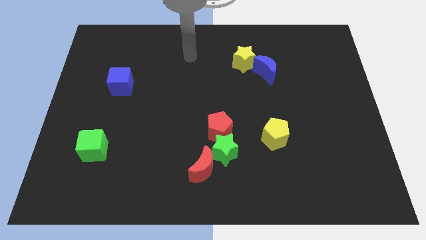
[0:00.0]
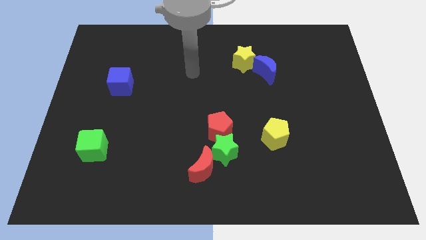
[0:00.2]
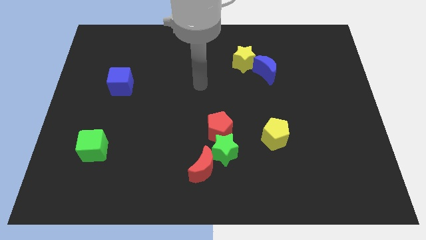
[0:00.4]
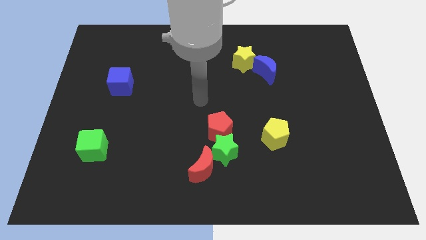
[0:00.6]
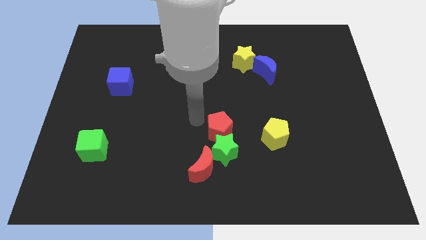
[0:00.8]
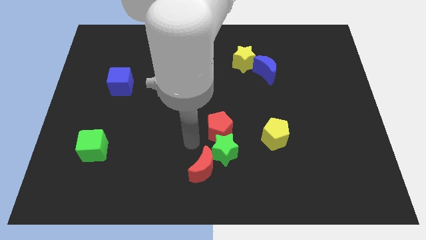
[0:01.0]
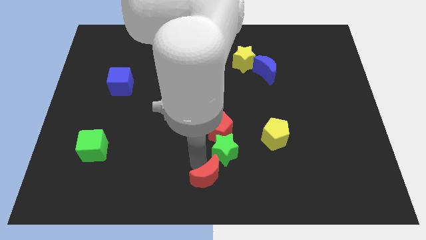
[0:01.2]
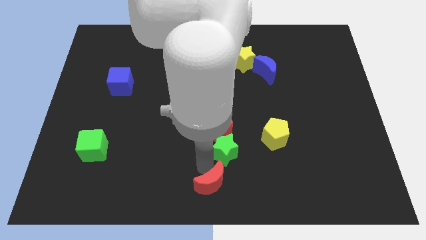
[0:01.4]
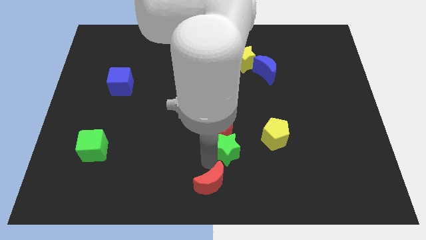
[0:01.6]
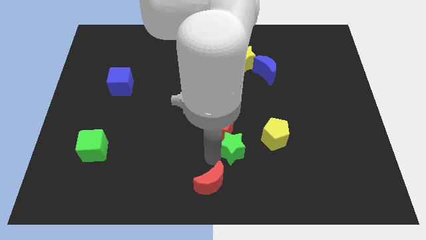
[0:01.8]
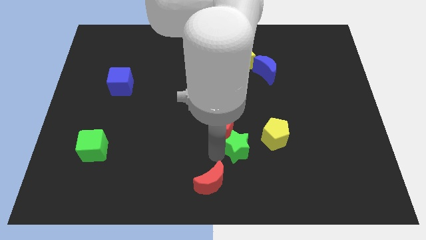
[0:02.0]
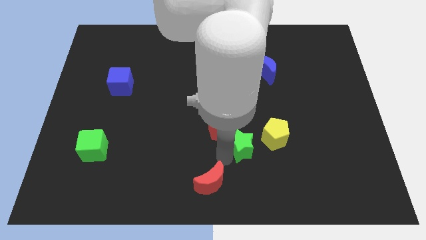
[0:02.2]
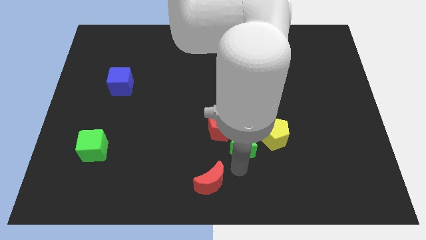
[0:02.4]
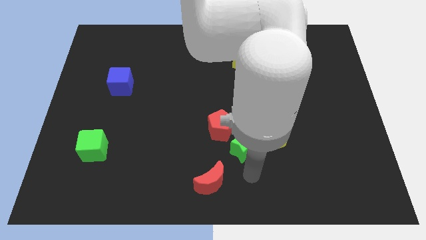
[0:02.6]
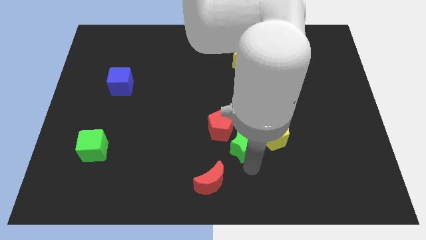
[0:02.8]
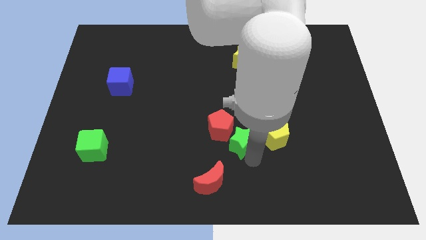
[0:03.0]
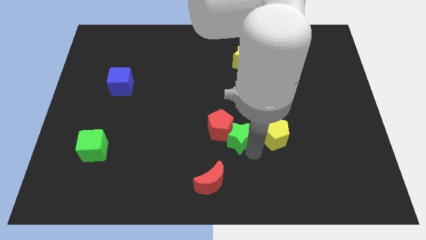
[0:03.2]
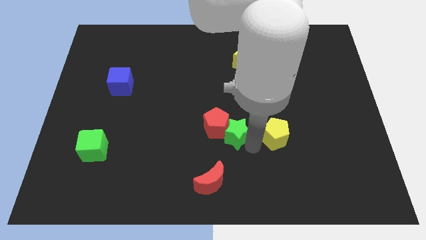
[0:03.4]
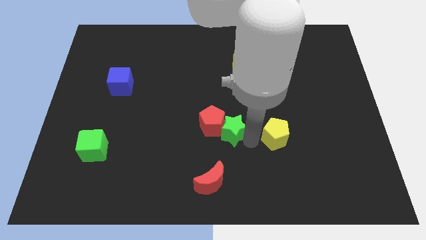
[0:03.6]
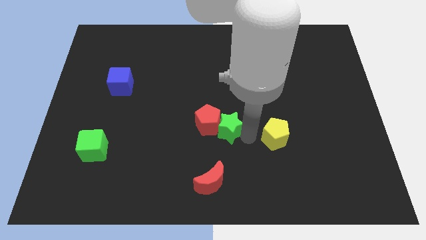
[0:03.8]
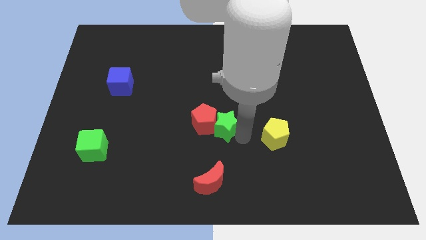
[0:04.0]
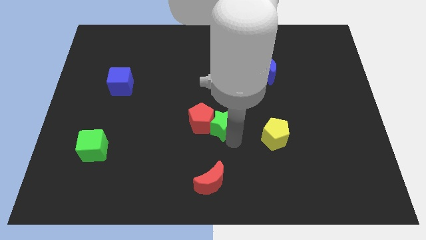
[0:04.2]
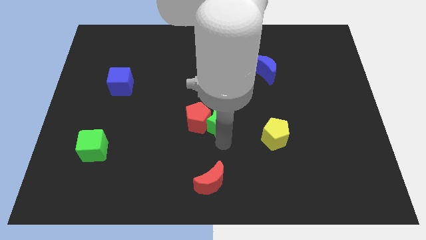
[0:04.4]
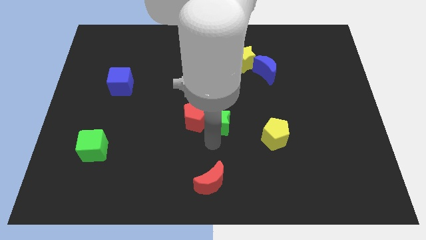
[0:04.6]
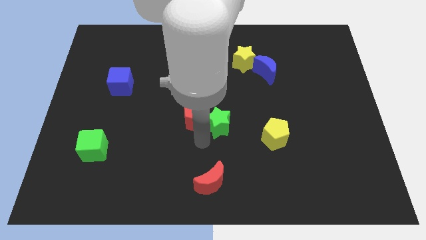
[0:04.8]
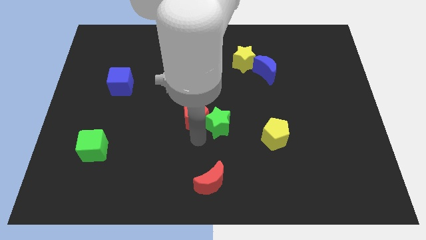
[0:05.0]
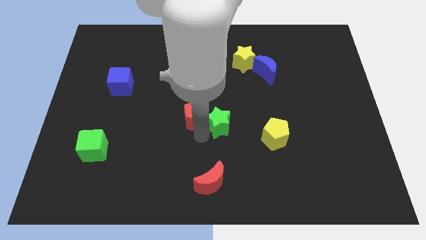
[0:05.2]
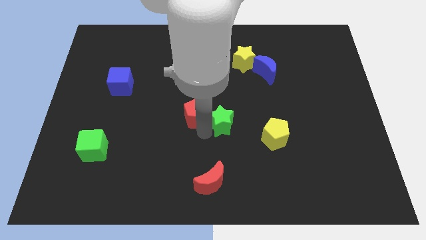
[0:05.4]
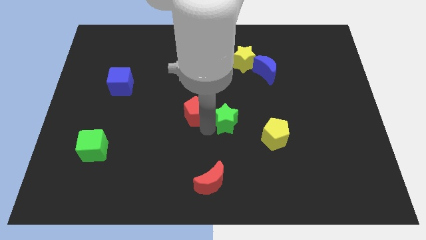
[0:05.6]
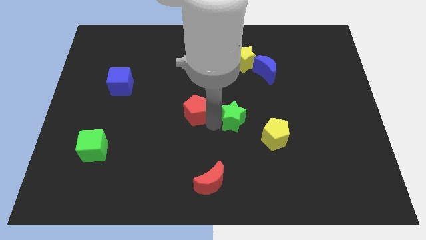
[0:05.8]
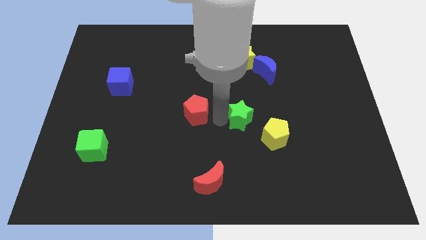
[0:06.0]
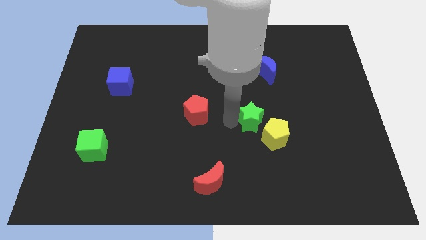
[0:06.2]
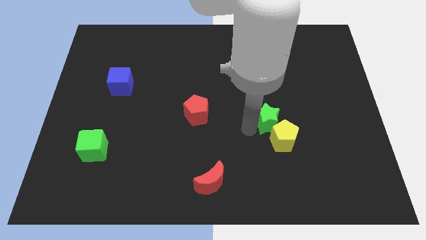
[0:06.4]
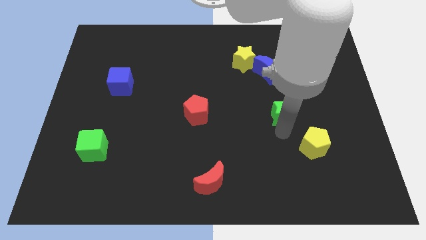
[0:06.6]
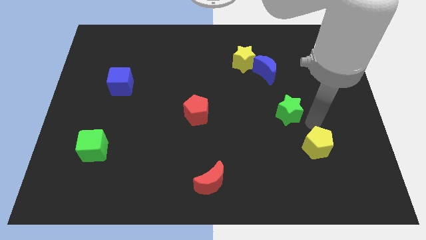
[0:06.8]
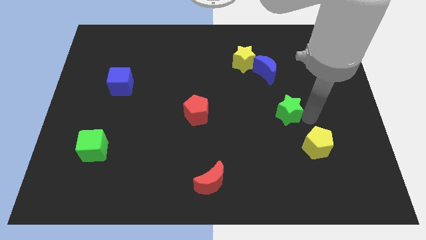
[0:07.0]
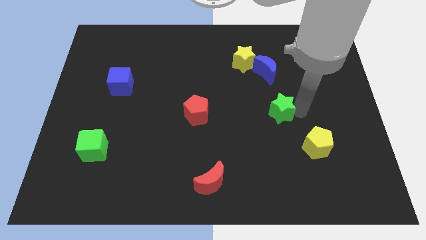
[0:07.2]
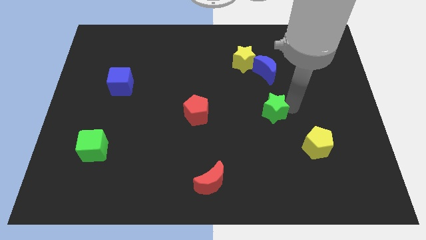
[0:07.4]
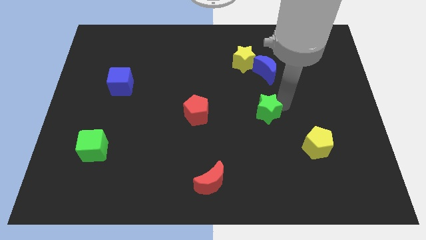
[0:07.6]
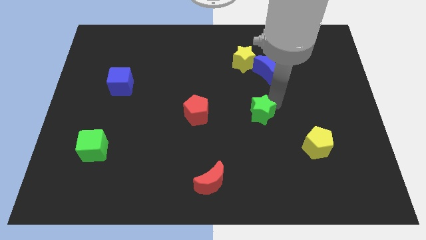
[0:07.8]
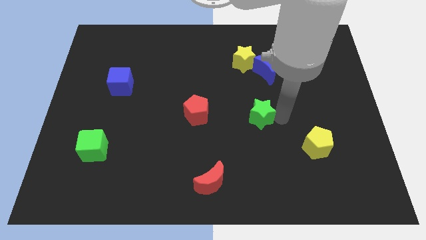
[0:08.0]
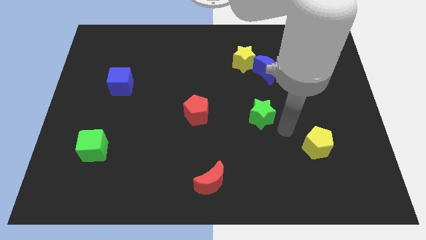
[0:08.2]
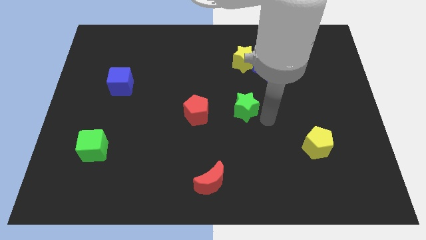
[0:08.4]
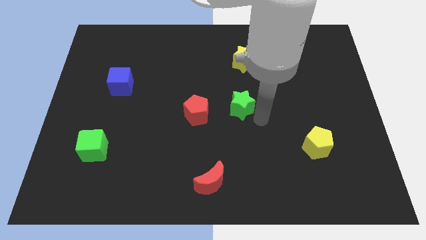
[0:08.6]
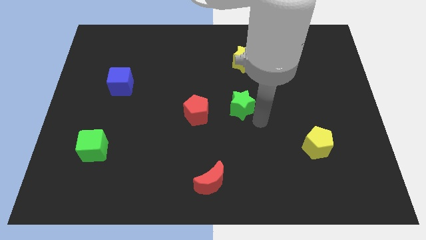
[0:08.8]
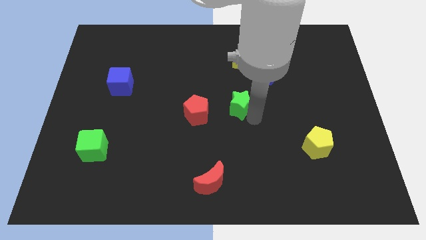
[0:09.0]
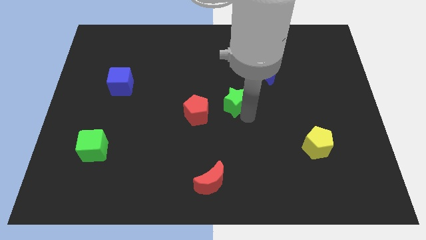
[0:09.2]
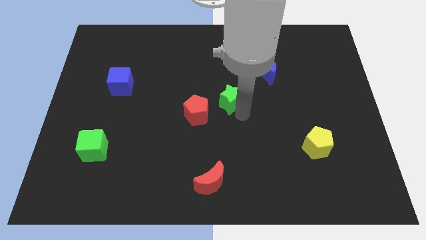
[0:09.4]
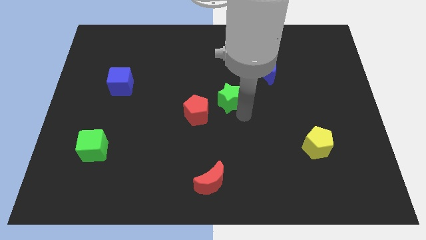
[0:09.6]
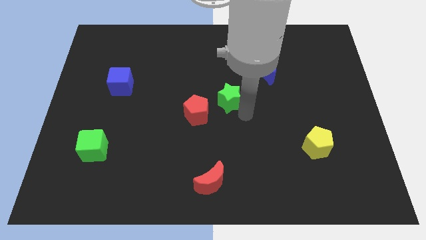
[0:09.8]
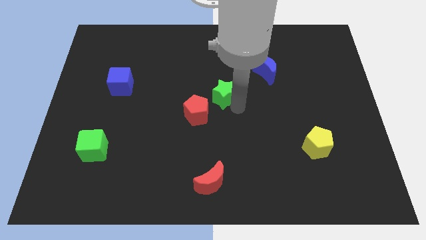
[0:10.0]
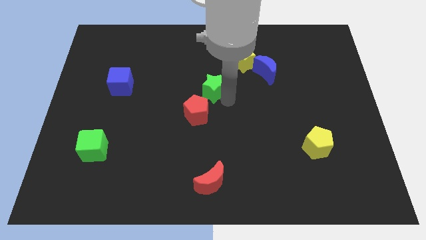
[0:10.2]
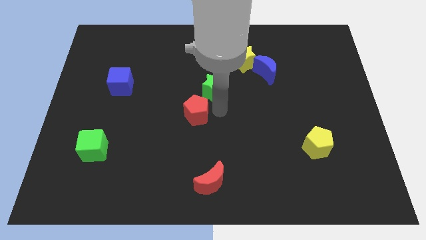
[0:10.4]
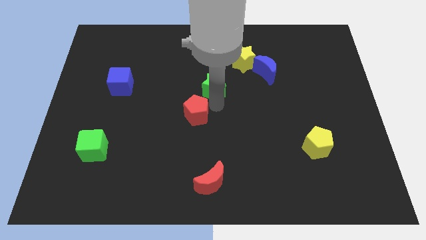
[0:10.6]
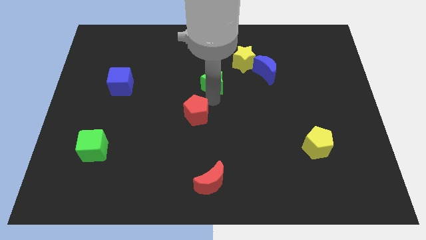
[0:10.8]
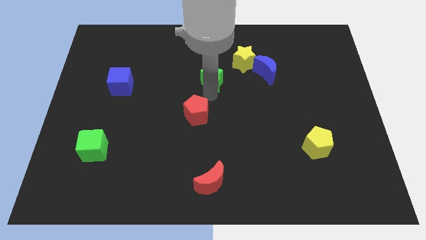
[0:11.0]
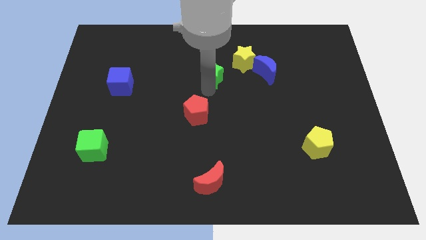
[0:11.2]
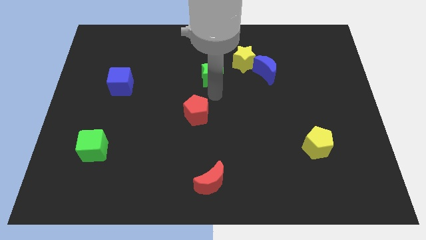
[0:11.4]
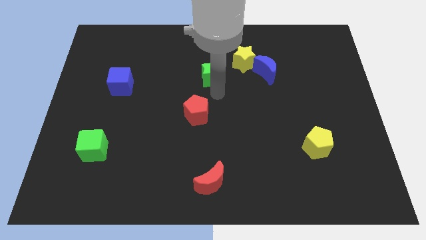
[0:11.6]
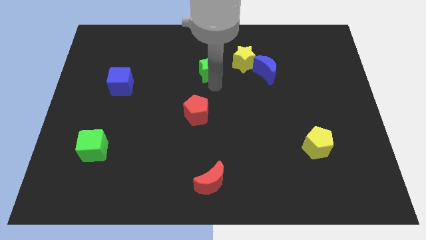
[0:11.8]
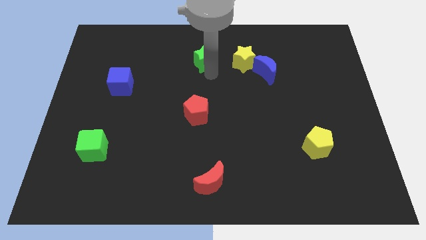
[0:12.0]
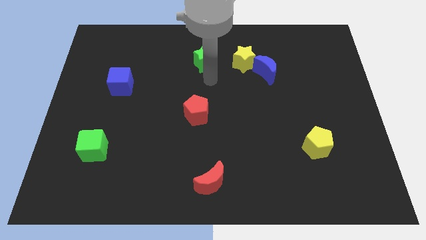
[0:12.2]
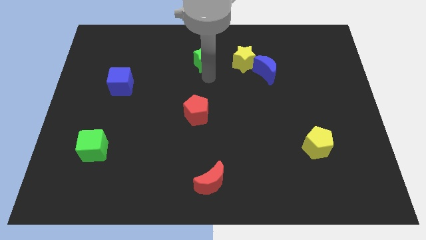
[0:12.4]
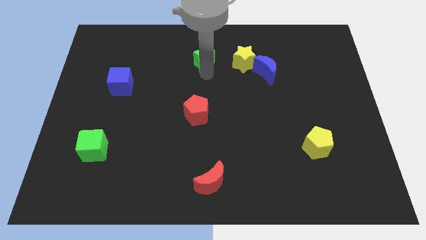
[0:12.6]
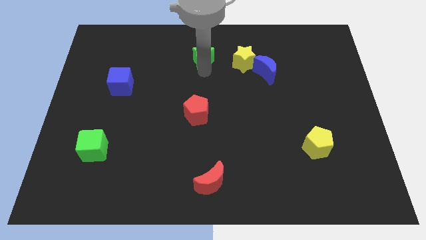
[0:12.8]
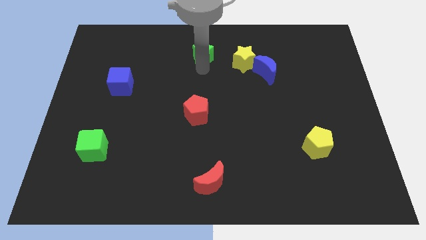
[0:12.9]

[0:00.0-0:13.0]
slide the green star to the top side
